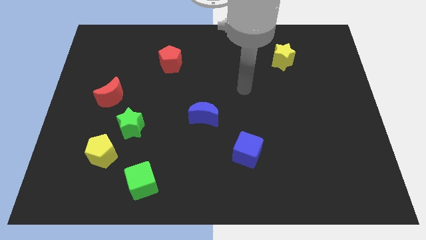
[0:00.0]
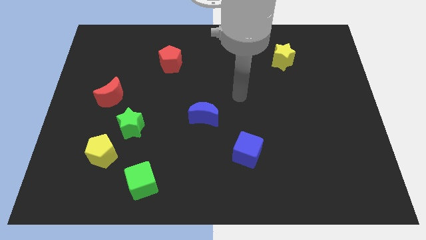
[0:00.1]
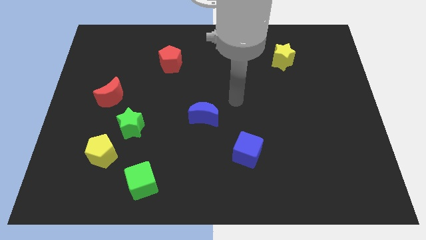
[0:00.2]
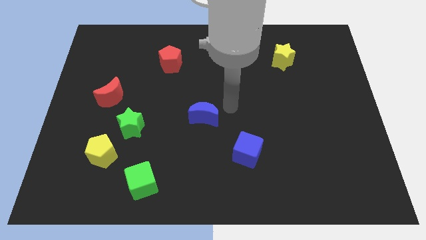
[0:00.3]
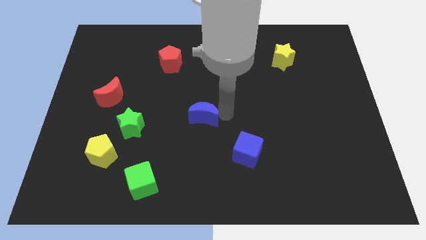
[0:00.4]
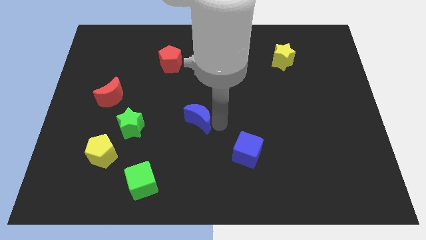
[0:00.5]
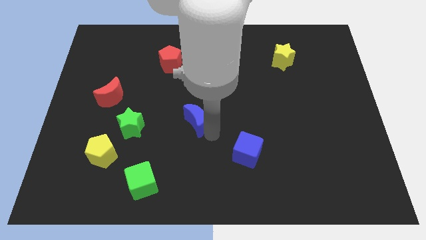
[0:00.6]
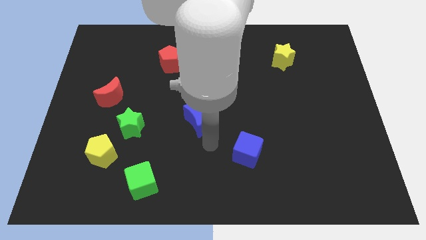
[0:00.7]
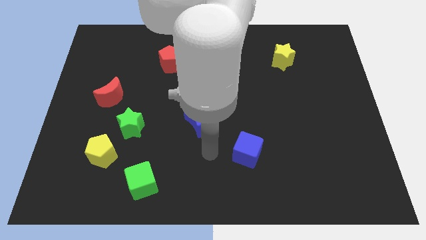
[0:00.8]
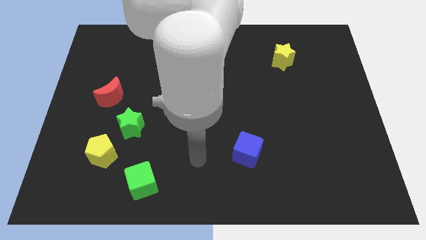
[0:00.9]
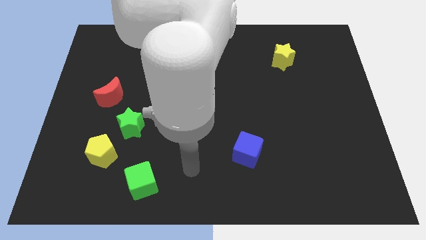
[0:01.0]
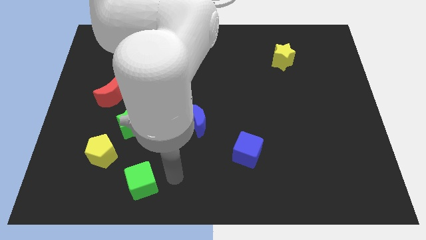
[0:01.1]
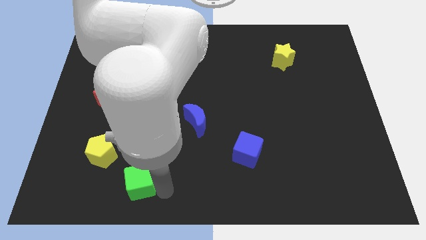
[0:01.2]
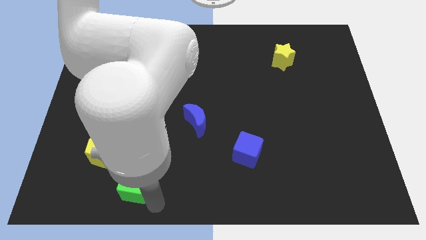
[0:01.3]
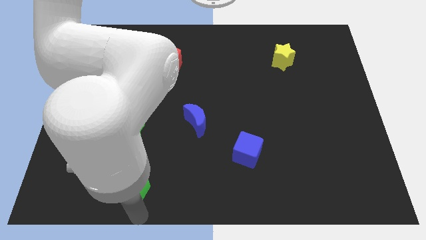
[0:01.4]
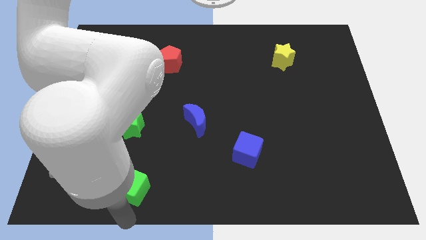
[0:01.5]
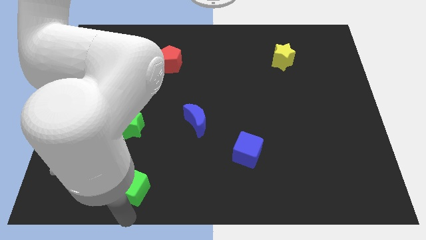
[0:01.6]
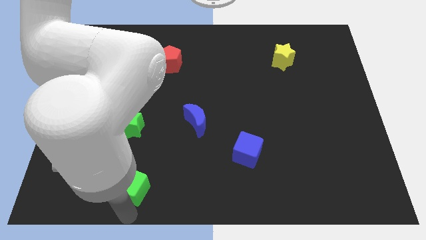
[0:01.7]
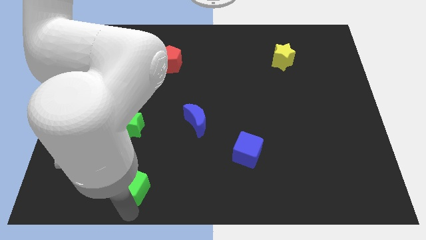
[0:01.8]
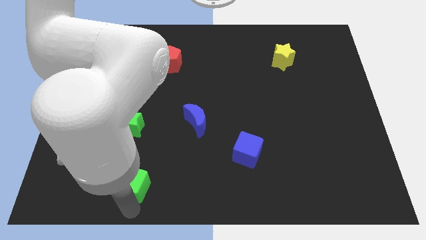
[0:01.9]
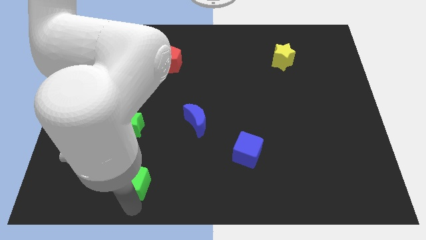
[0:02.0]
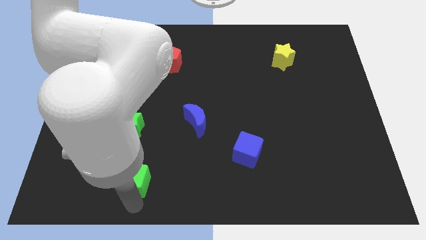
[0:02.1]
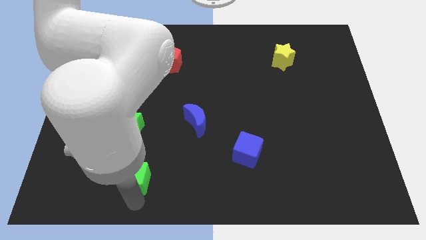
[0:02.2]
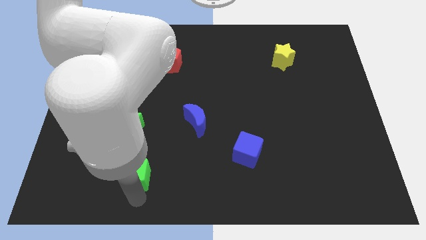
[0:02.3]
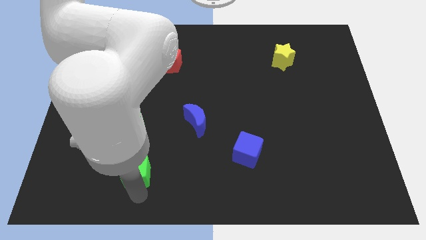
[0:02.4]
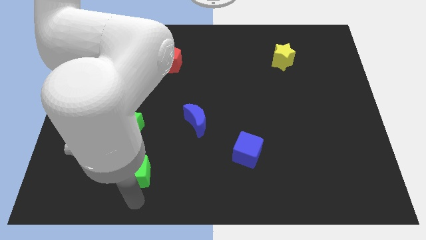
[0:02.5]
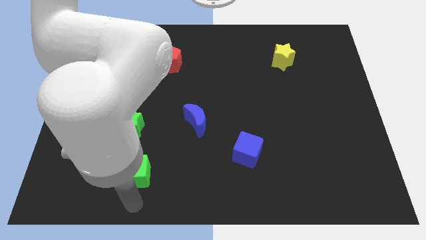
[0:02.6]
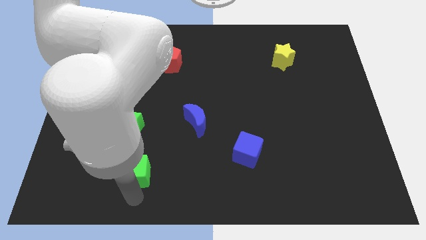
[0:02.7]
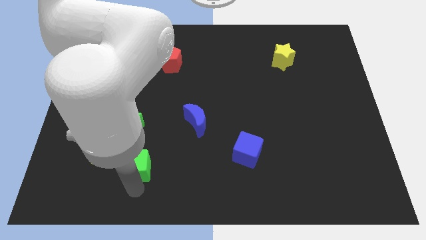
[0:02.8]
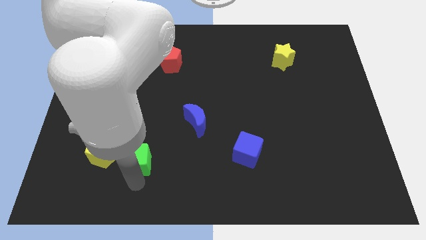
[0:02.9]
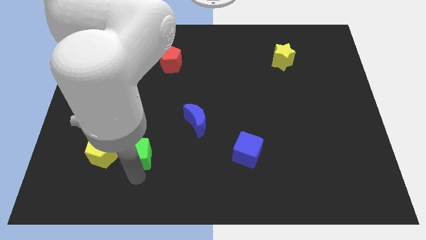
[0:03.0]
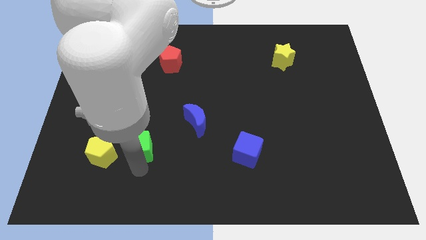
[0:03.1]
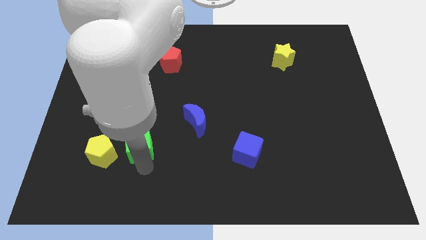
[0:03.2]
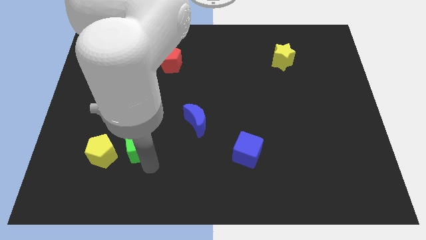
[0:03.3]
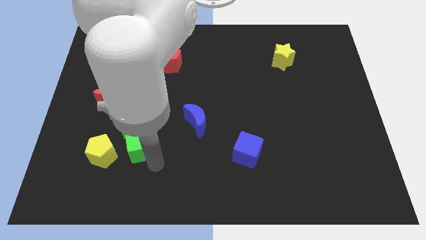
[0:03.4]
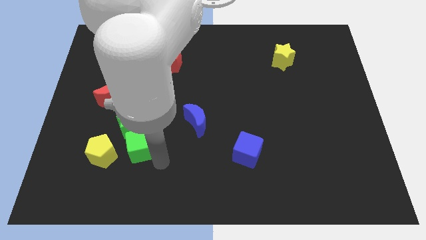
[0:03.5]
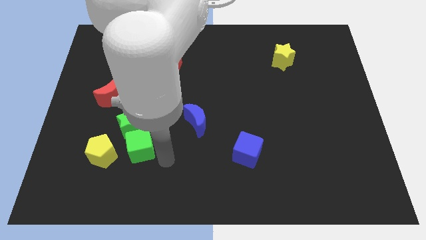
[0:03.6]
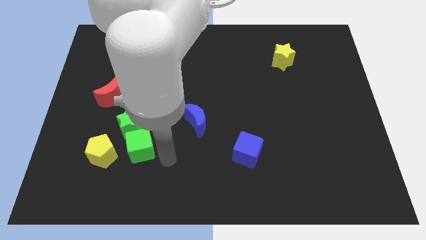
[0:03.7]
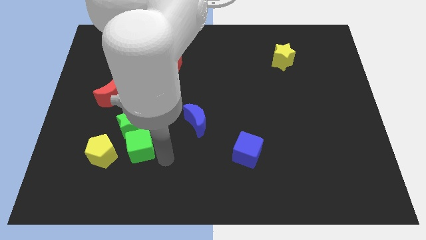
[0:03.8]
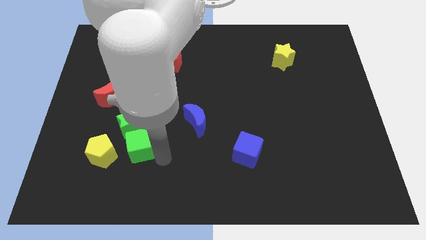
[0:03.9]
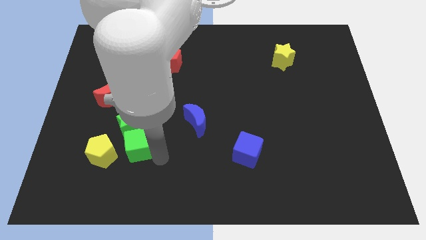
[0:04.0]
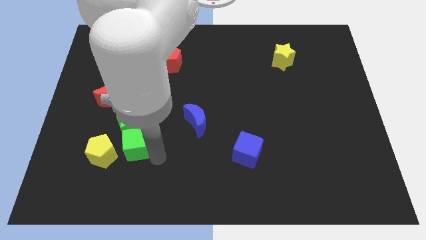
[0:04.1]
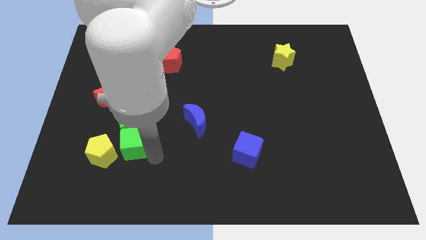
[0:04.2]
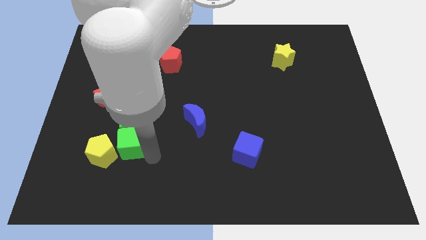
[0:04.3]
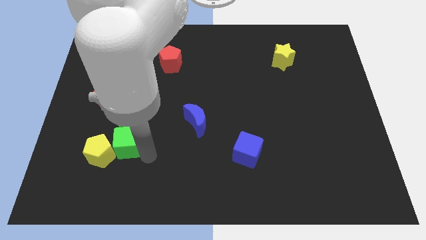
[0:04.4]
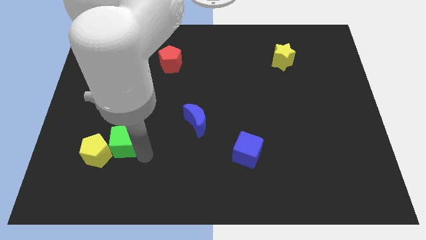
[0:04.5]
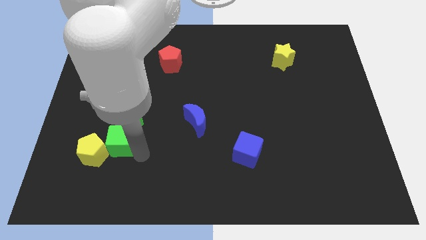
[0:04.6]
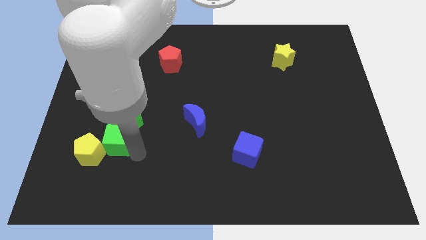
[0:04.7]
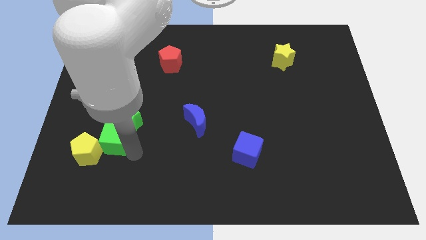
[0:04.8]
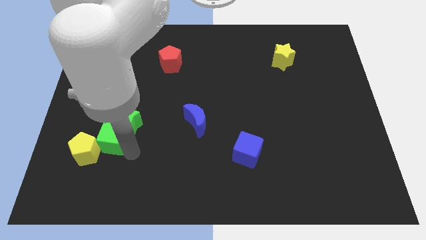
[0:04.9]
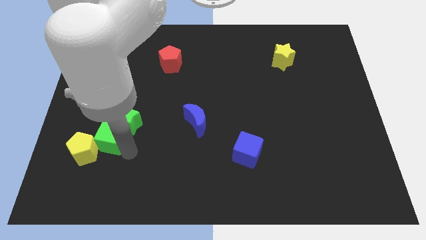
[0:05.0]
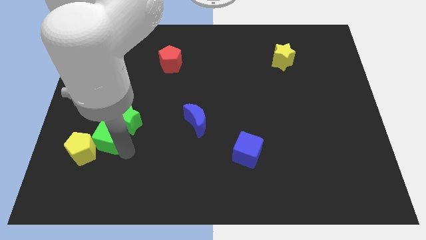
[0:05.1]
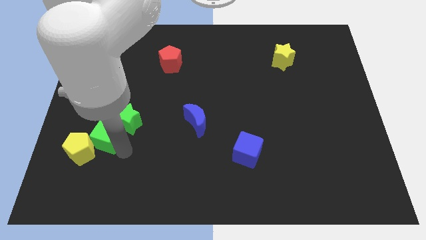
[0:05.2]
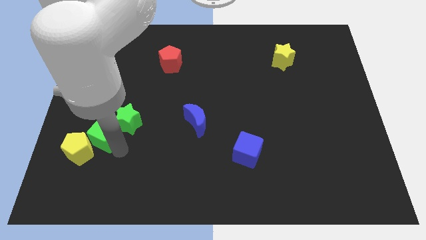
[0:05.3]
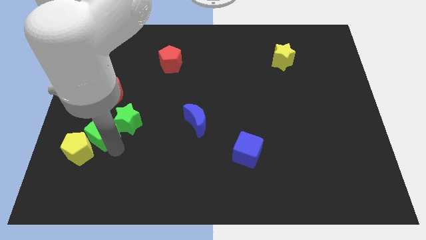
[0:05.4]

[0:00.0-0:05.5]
move the green cube above the yellow pentagon
